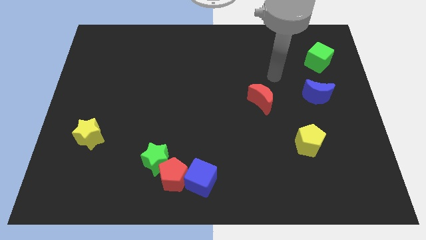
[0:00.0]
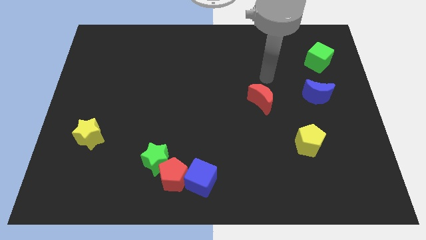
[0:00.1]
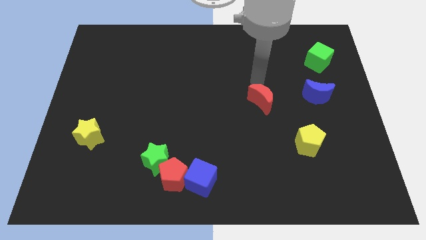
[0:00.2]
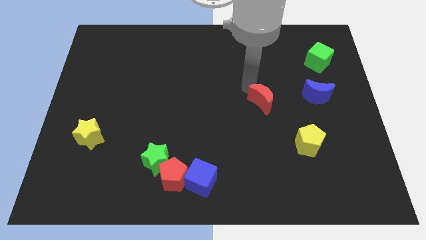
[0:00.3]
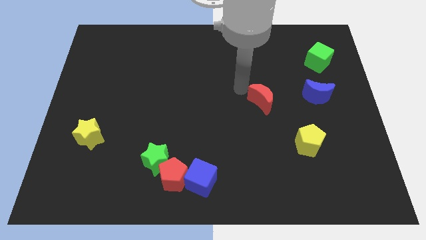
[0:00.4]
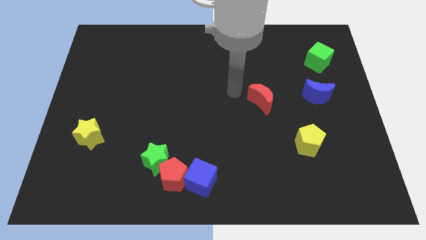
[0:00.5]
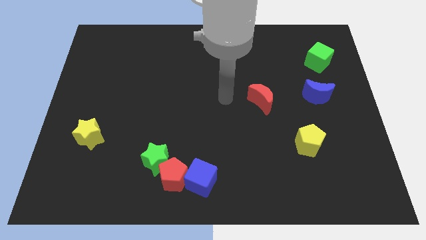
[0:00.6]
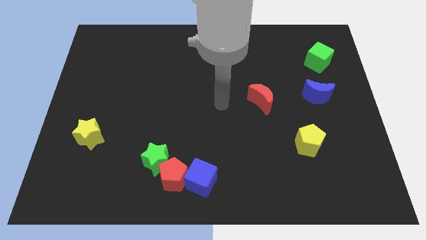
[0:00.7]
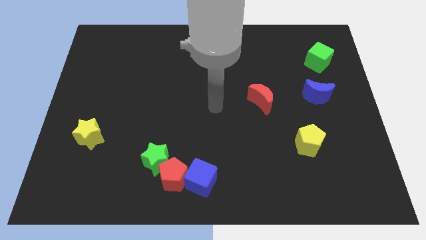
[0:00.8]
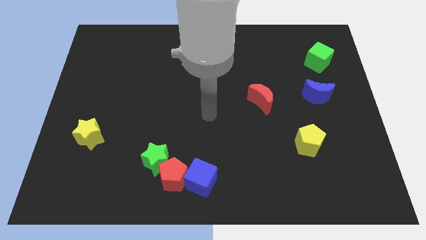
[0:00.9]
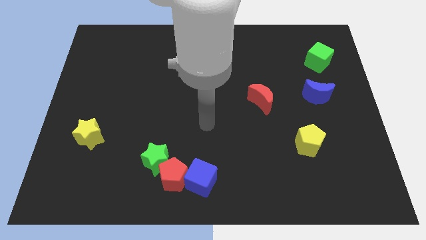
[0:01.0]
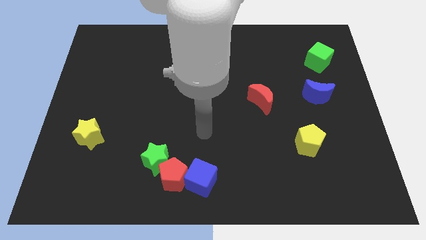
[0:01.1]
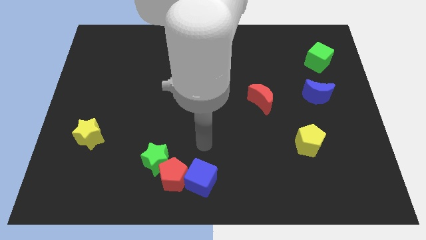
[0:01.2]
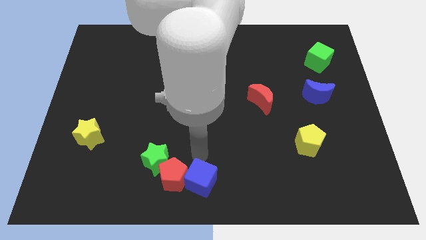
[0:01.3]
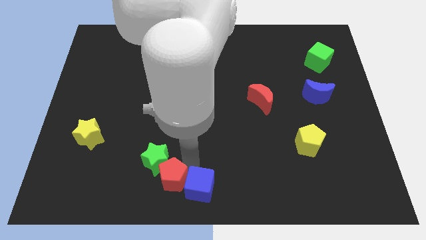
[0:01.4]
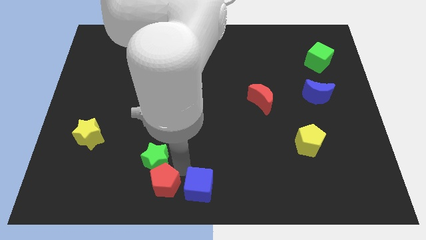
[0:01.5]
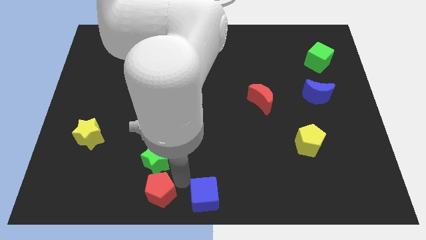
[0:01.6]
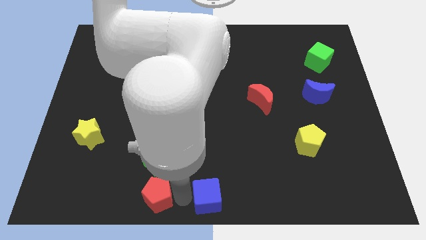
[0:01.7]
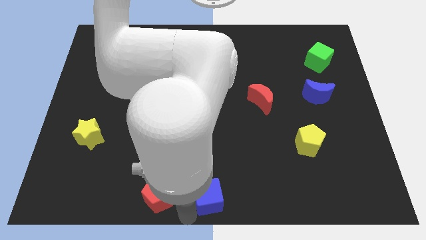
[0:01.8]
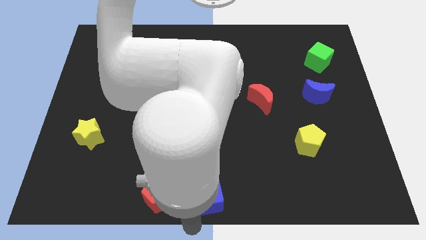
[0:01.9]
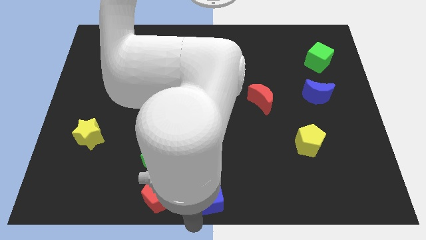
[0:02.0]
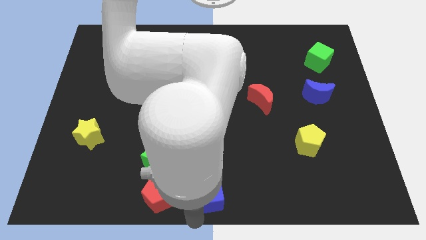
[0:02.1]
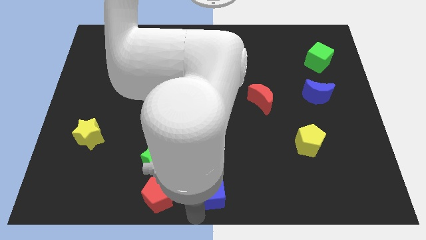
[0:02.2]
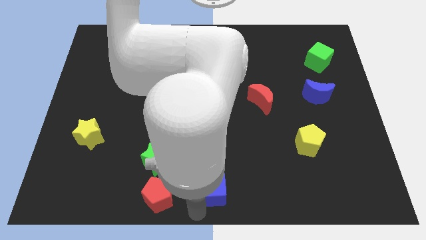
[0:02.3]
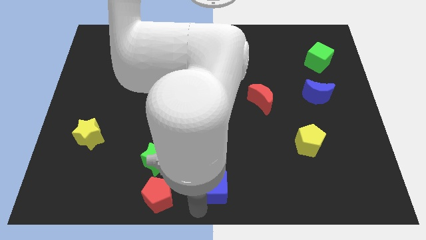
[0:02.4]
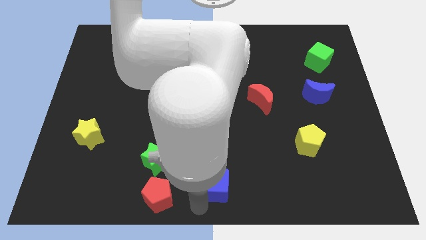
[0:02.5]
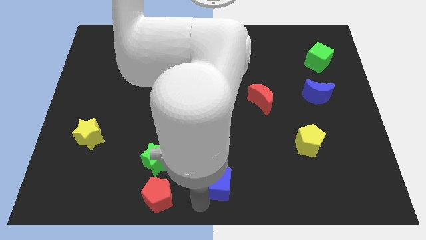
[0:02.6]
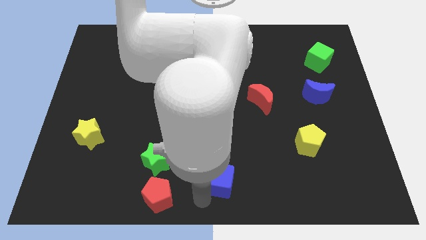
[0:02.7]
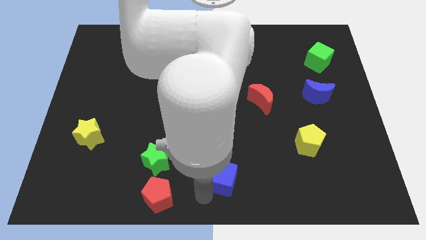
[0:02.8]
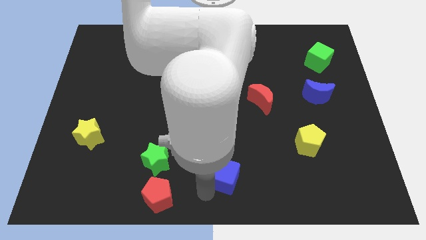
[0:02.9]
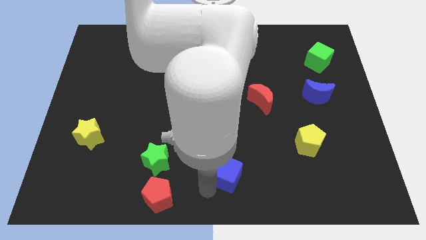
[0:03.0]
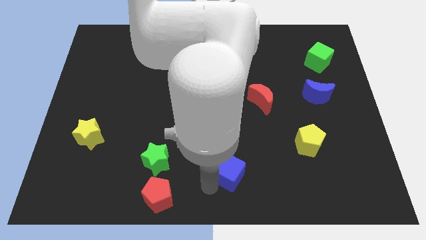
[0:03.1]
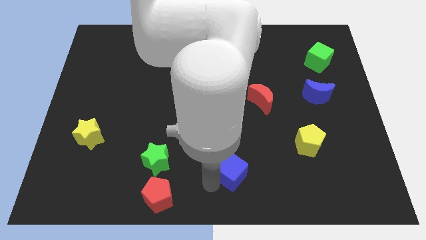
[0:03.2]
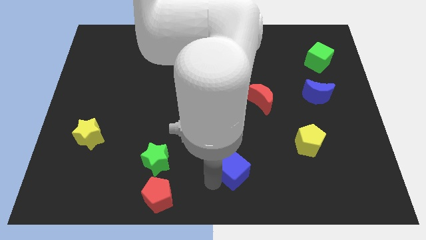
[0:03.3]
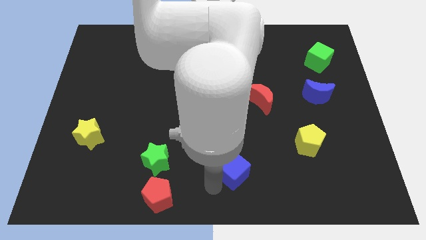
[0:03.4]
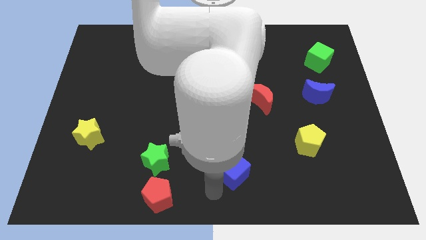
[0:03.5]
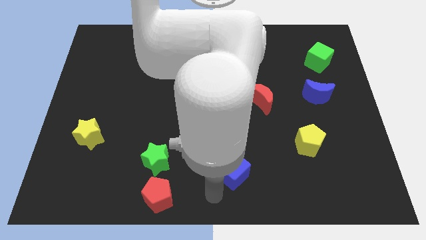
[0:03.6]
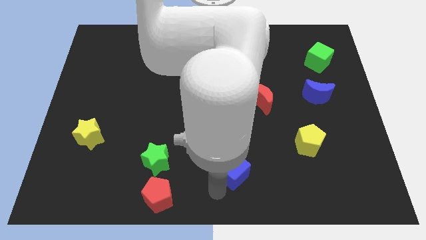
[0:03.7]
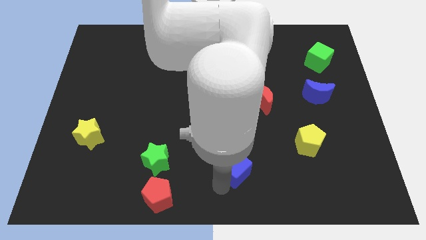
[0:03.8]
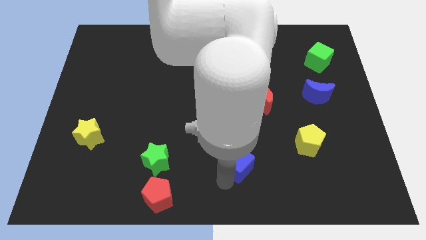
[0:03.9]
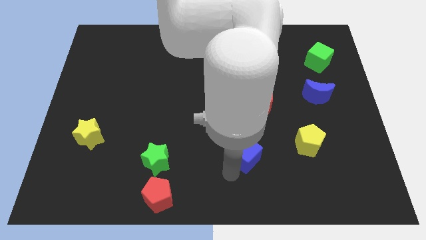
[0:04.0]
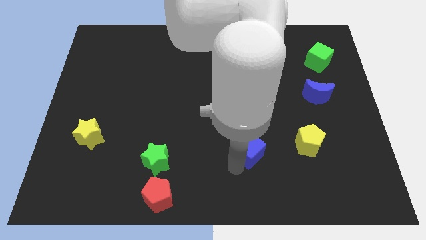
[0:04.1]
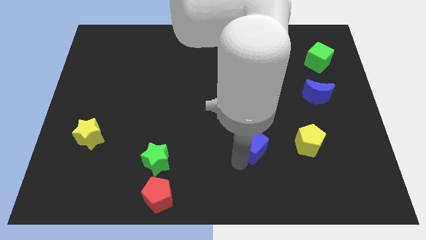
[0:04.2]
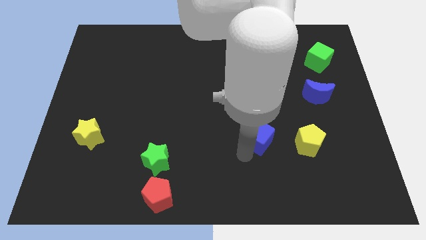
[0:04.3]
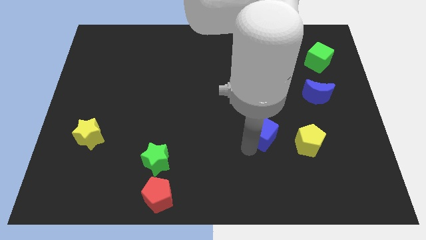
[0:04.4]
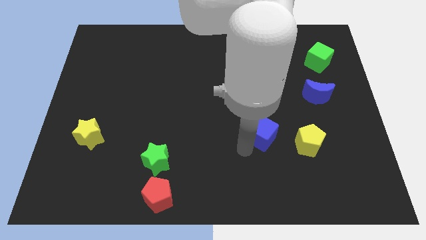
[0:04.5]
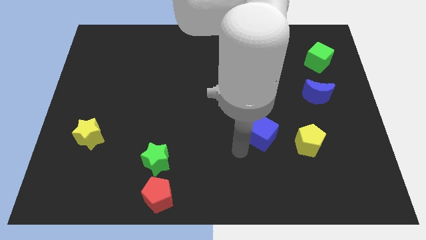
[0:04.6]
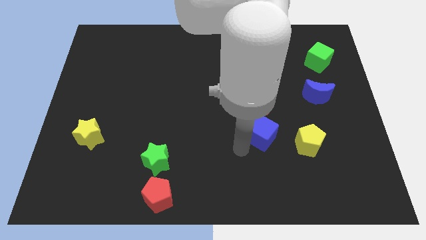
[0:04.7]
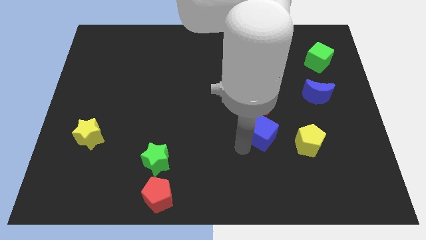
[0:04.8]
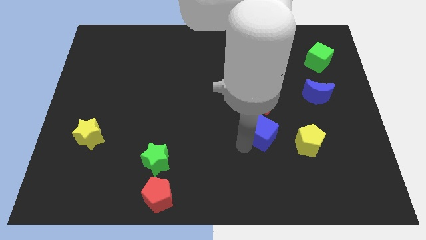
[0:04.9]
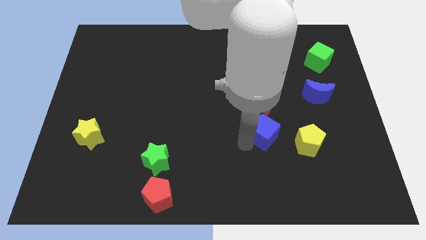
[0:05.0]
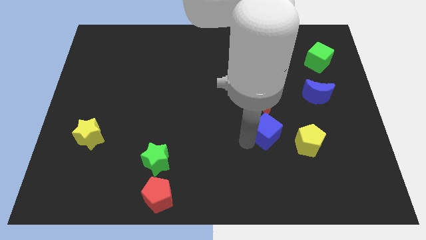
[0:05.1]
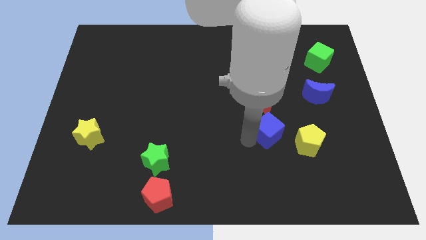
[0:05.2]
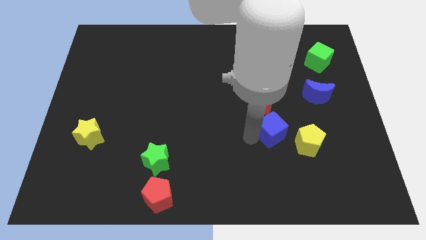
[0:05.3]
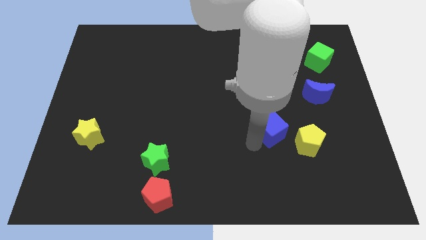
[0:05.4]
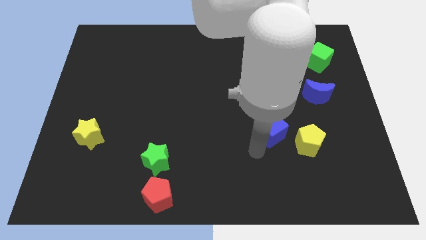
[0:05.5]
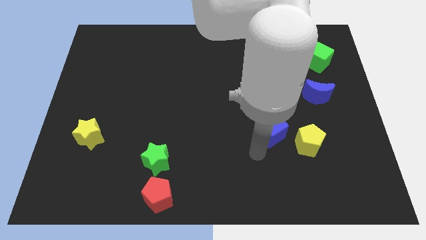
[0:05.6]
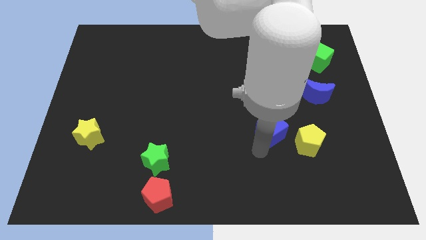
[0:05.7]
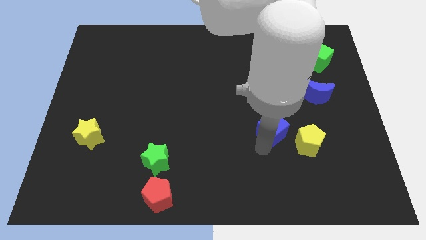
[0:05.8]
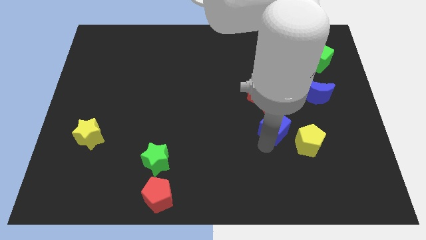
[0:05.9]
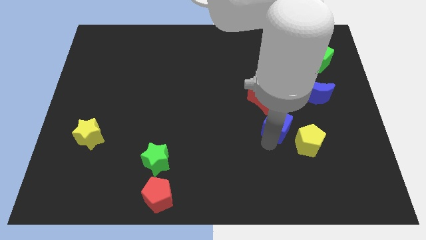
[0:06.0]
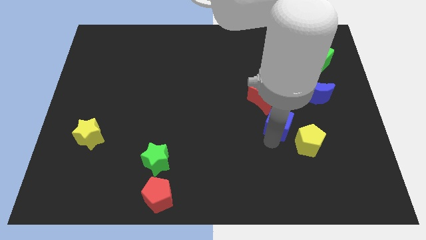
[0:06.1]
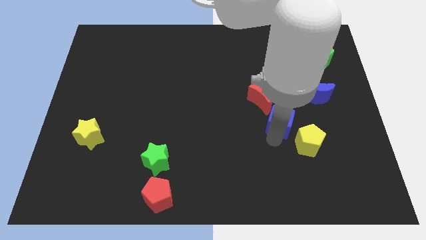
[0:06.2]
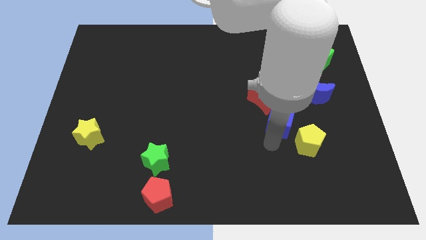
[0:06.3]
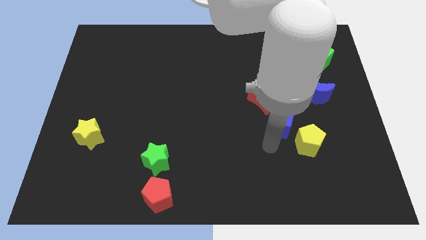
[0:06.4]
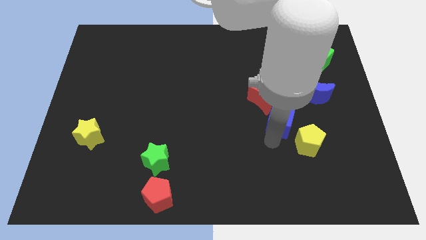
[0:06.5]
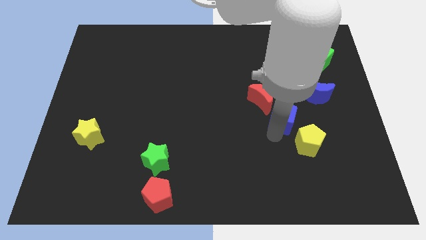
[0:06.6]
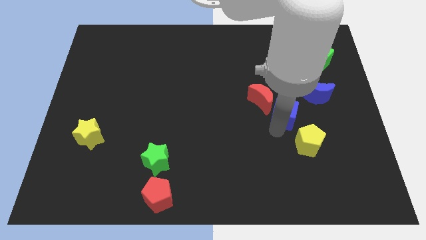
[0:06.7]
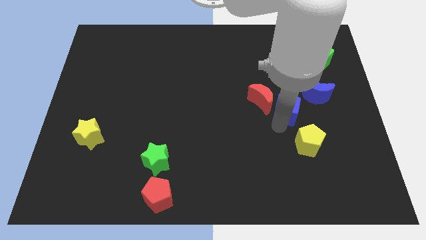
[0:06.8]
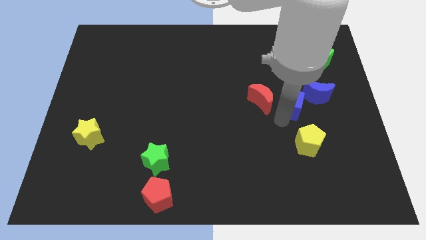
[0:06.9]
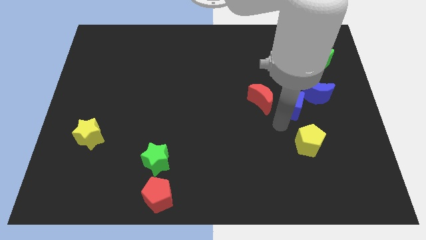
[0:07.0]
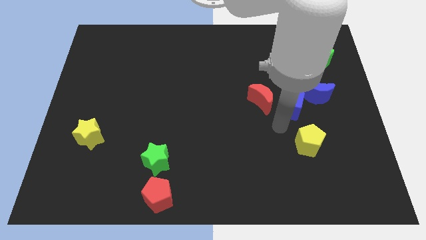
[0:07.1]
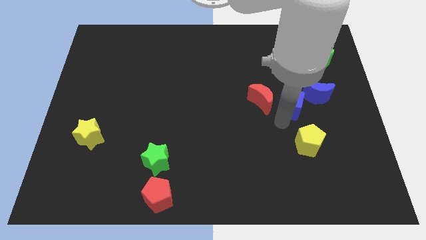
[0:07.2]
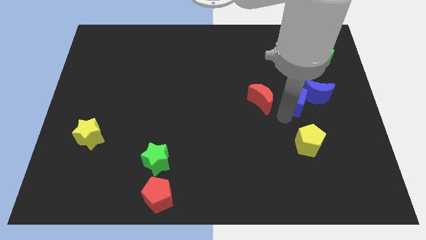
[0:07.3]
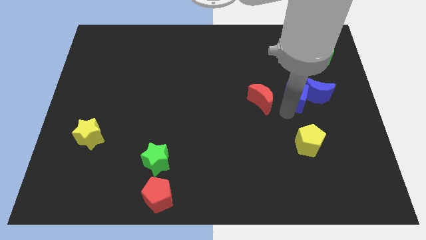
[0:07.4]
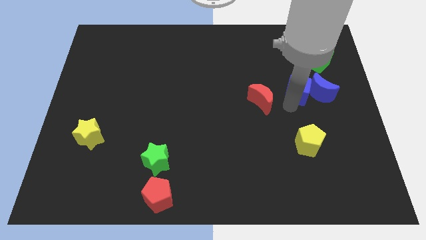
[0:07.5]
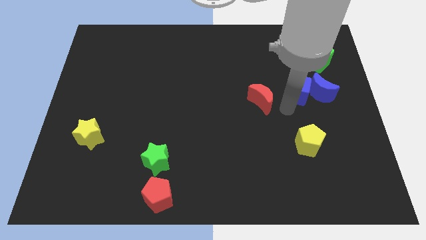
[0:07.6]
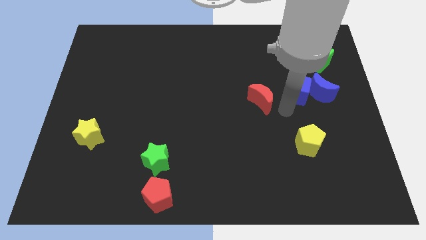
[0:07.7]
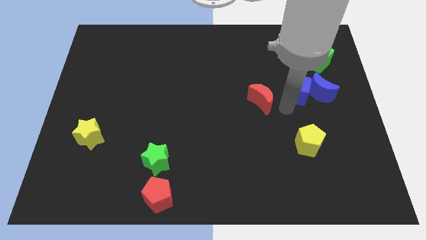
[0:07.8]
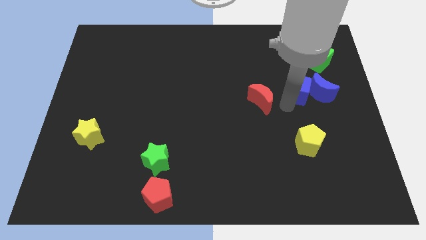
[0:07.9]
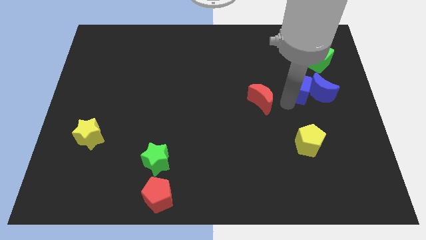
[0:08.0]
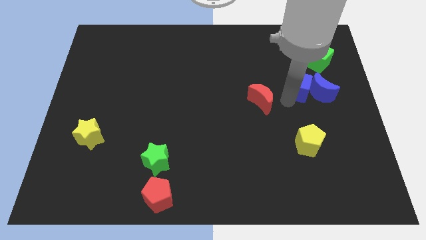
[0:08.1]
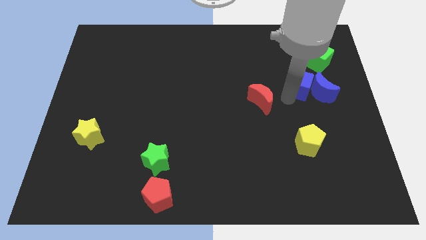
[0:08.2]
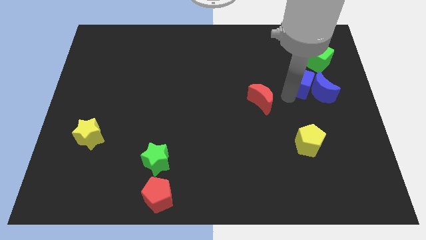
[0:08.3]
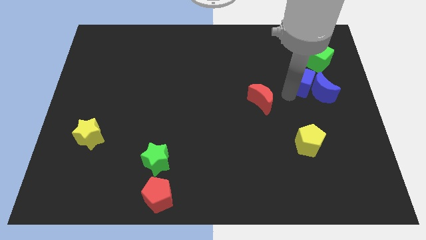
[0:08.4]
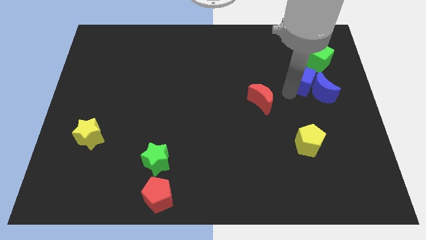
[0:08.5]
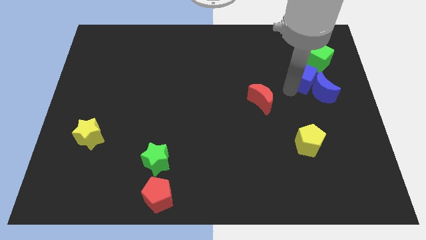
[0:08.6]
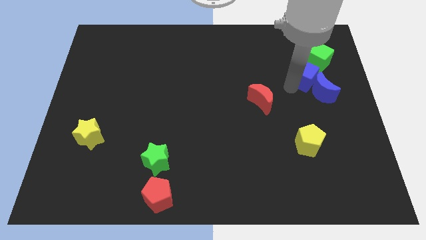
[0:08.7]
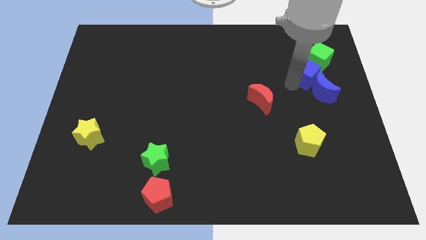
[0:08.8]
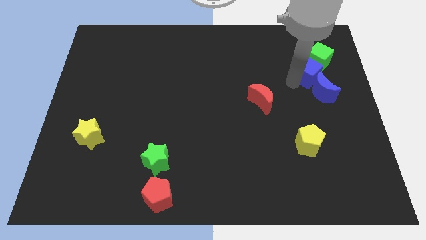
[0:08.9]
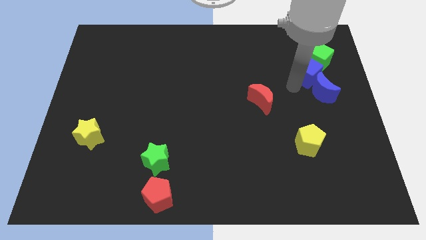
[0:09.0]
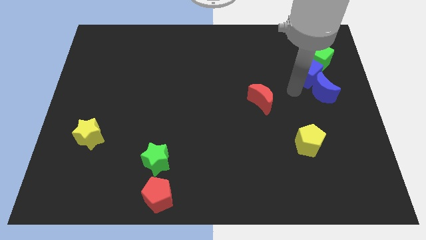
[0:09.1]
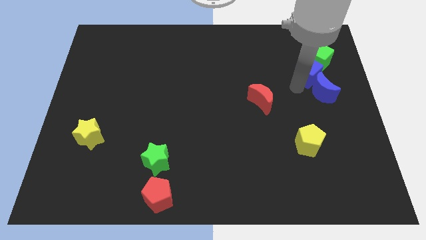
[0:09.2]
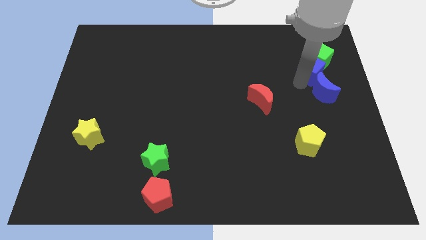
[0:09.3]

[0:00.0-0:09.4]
slide the blue cube towards the green cube
